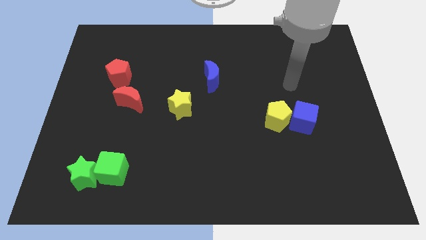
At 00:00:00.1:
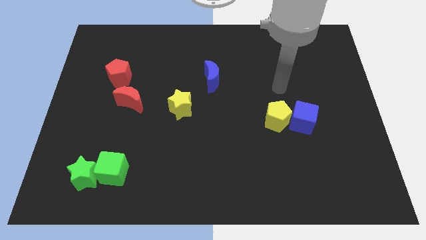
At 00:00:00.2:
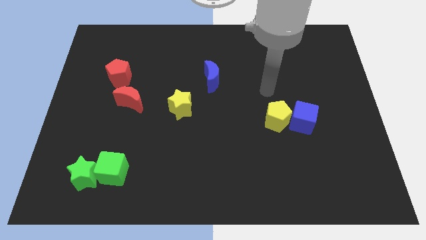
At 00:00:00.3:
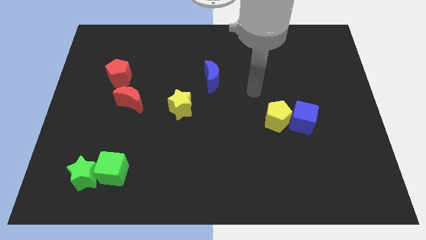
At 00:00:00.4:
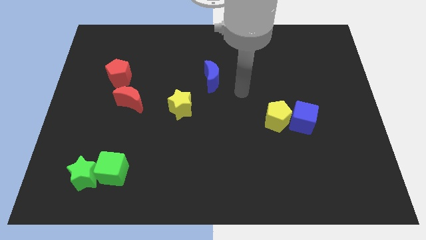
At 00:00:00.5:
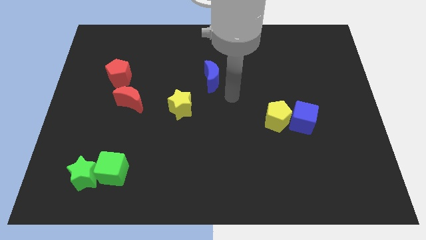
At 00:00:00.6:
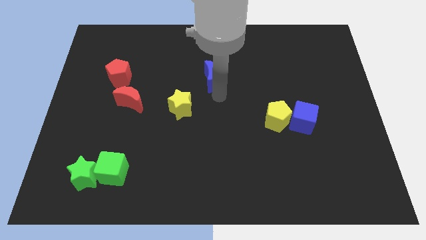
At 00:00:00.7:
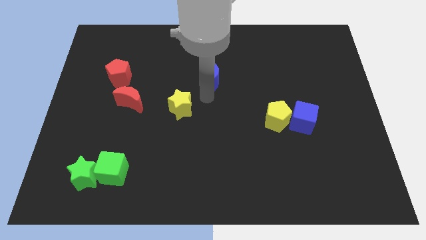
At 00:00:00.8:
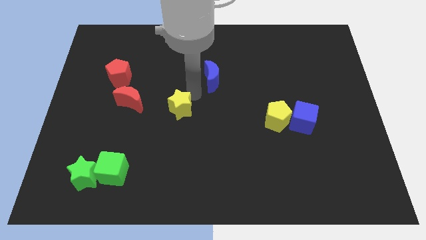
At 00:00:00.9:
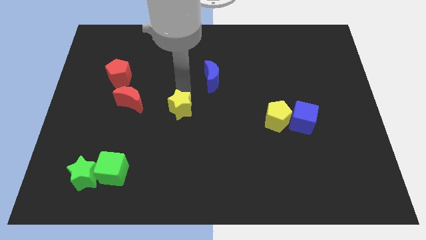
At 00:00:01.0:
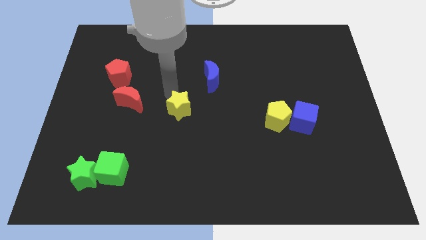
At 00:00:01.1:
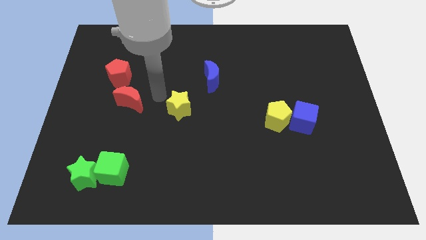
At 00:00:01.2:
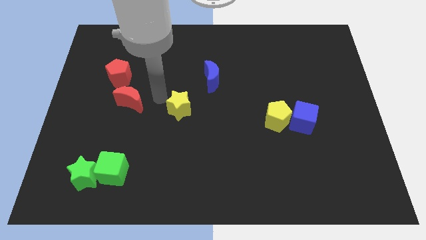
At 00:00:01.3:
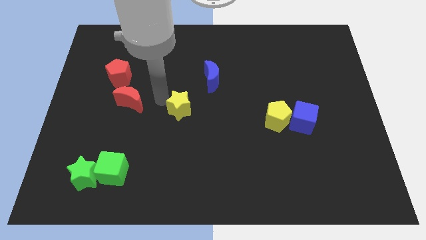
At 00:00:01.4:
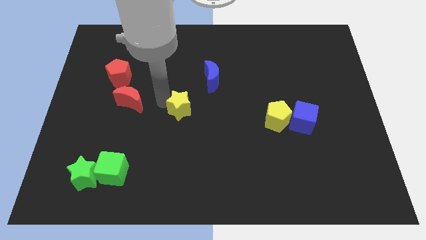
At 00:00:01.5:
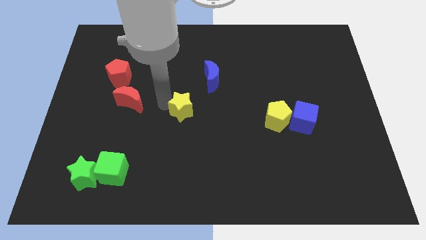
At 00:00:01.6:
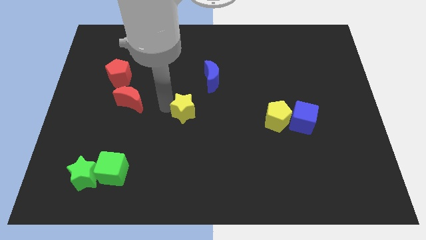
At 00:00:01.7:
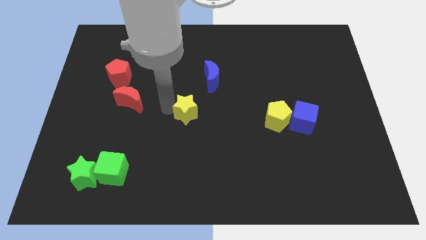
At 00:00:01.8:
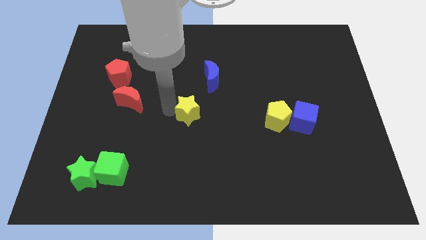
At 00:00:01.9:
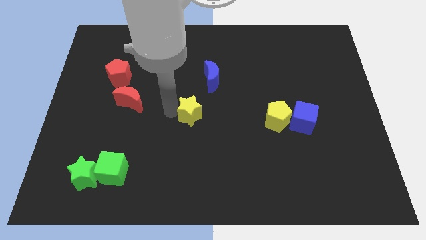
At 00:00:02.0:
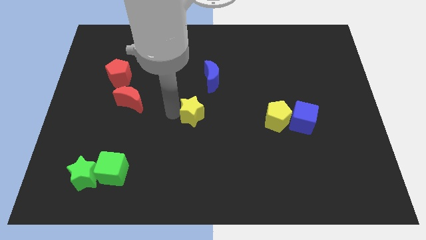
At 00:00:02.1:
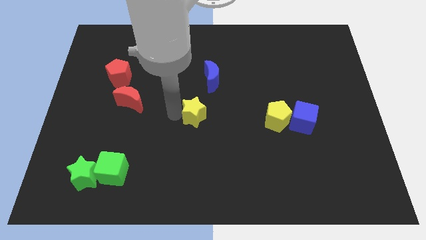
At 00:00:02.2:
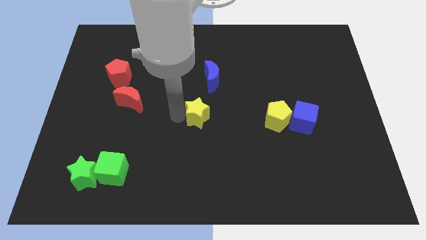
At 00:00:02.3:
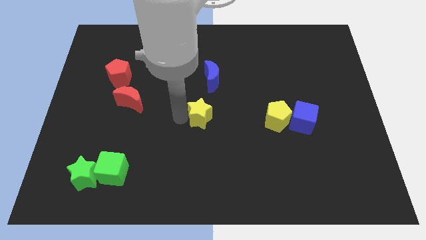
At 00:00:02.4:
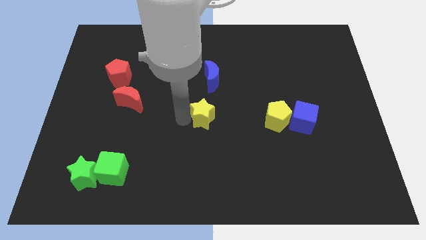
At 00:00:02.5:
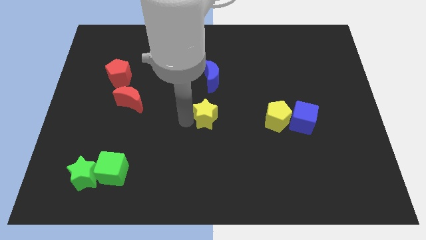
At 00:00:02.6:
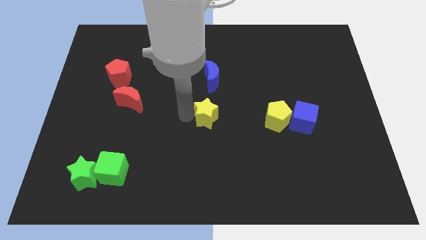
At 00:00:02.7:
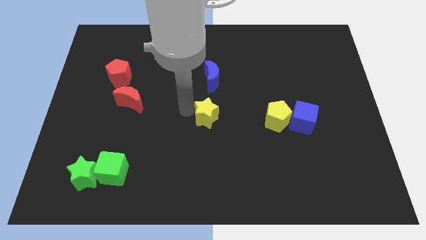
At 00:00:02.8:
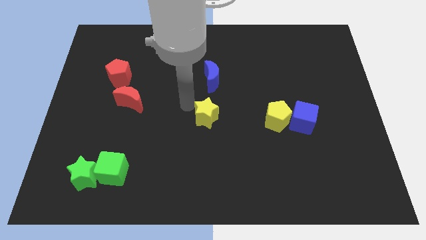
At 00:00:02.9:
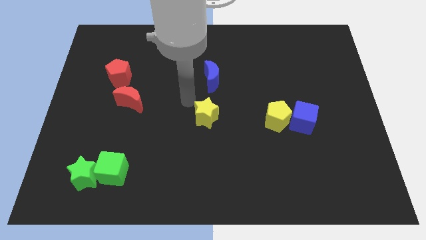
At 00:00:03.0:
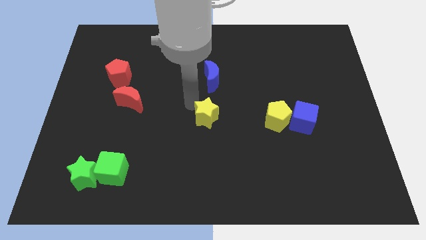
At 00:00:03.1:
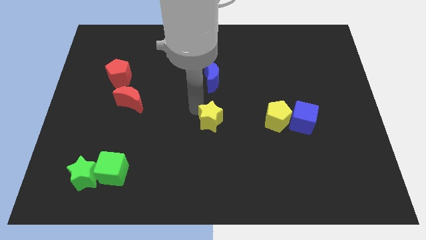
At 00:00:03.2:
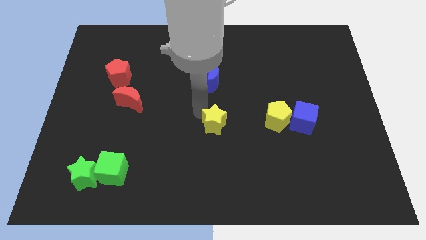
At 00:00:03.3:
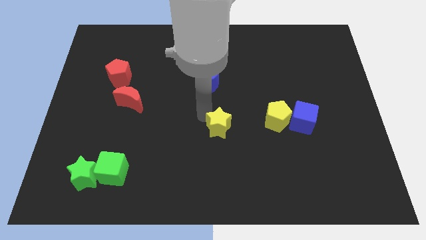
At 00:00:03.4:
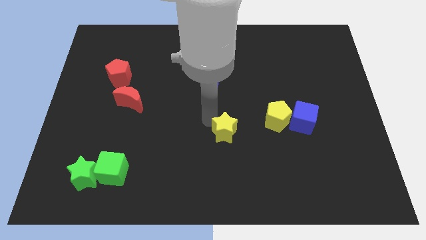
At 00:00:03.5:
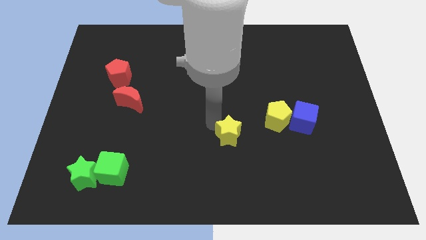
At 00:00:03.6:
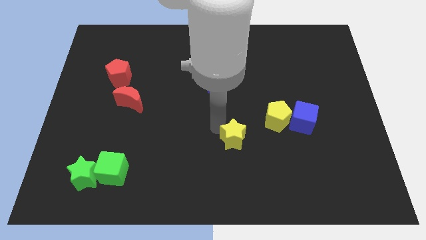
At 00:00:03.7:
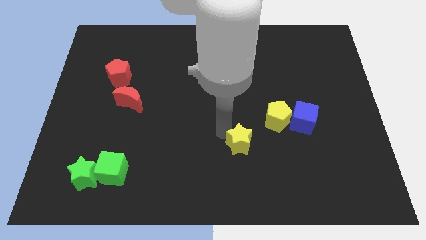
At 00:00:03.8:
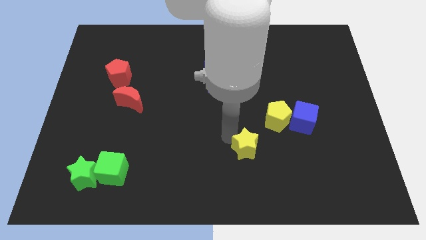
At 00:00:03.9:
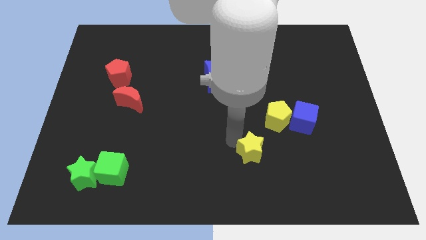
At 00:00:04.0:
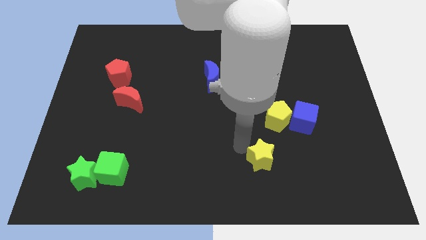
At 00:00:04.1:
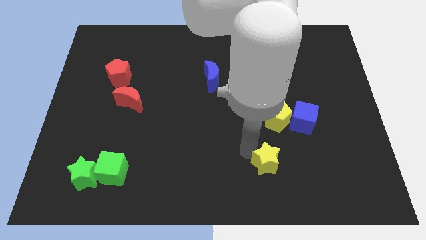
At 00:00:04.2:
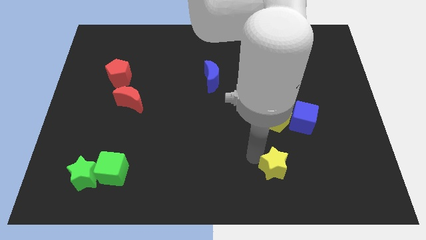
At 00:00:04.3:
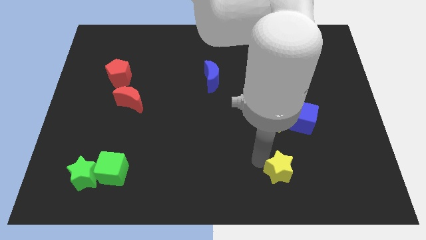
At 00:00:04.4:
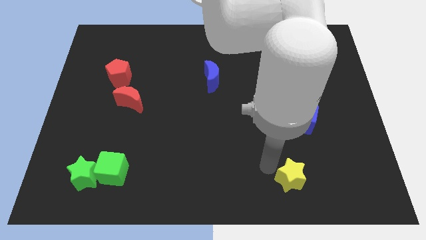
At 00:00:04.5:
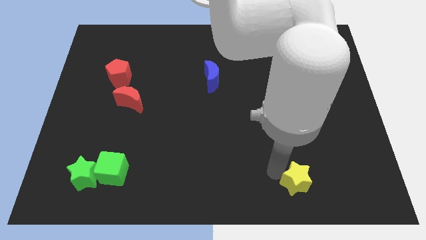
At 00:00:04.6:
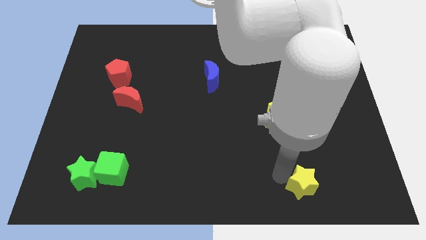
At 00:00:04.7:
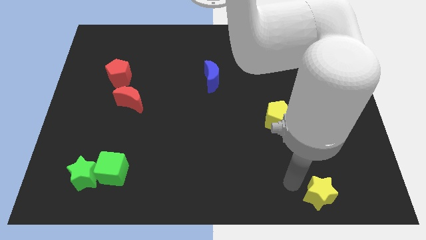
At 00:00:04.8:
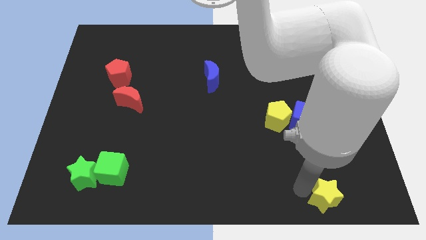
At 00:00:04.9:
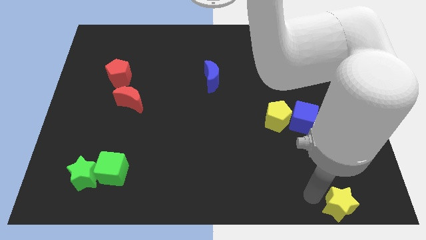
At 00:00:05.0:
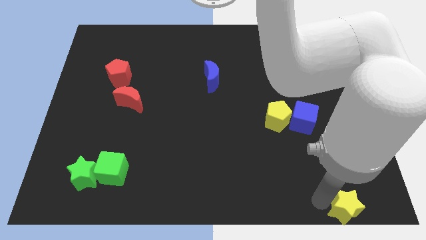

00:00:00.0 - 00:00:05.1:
push the yellow star to the bottom right

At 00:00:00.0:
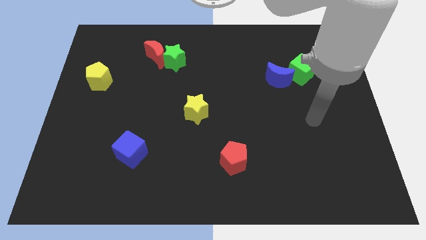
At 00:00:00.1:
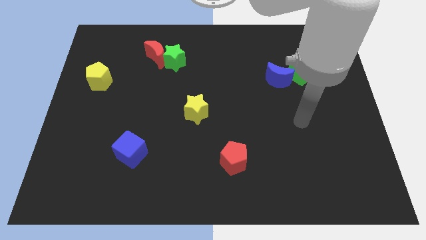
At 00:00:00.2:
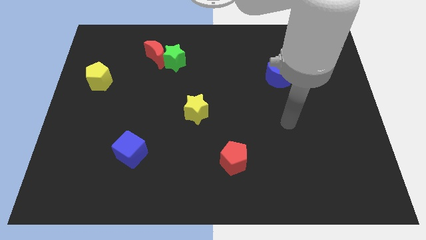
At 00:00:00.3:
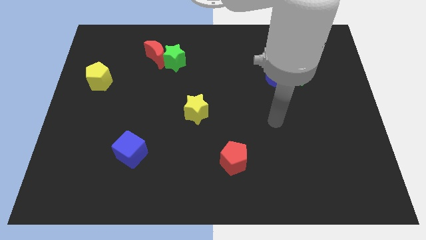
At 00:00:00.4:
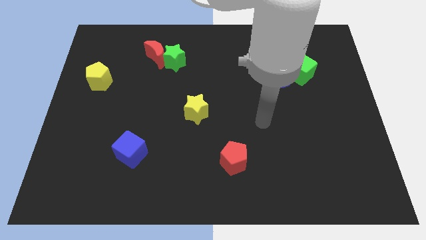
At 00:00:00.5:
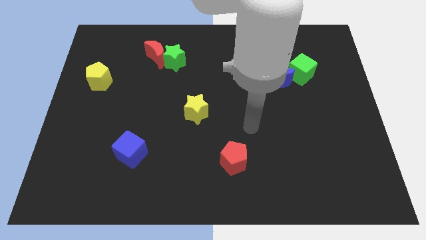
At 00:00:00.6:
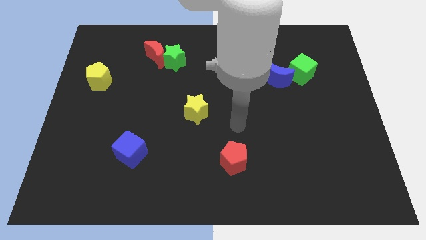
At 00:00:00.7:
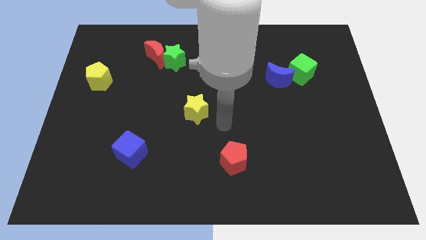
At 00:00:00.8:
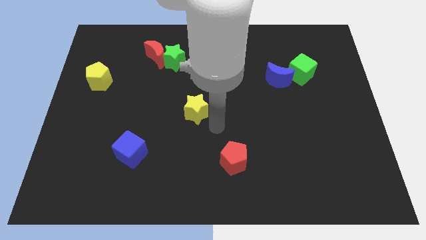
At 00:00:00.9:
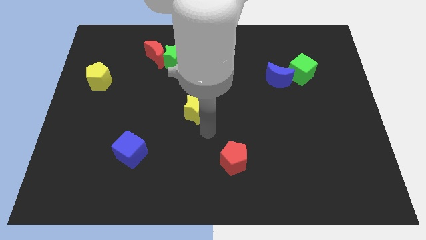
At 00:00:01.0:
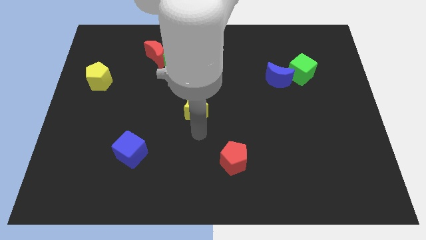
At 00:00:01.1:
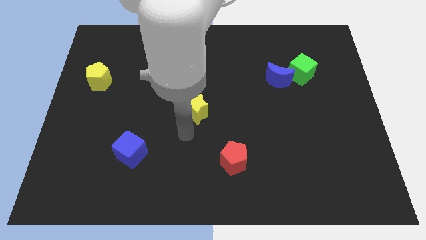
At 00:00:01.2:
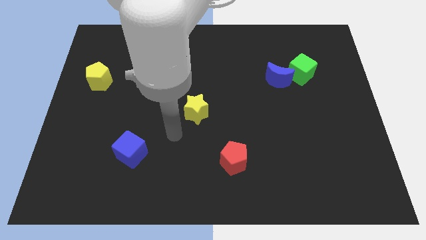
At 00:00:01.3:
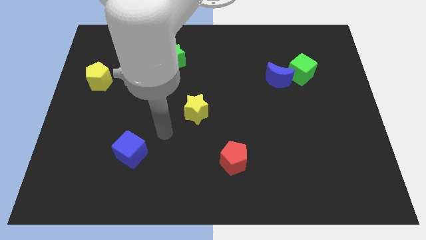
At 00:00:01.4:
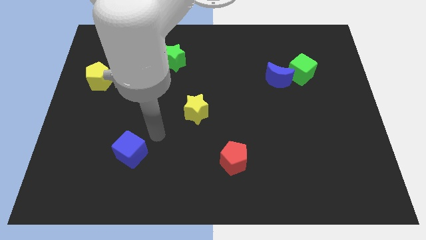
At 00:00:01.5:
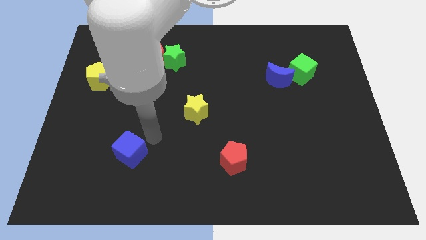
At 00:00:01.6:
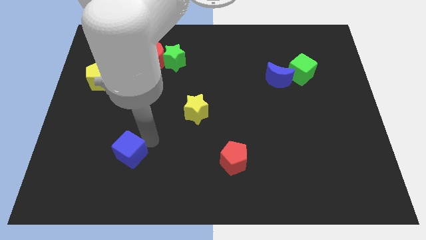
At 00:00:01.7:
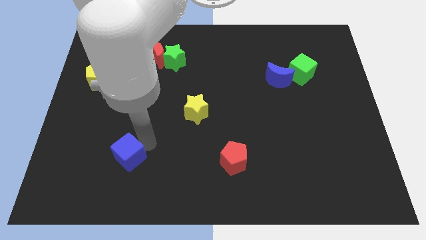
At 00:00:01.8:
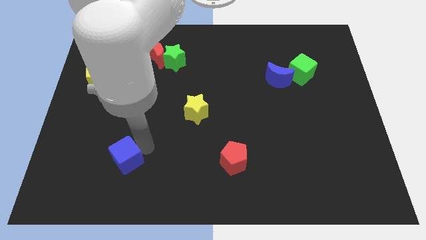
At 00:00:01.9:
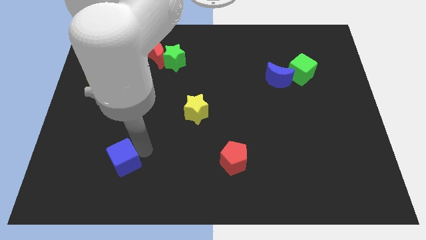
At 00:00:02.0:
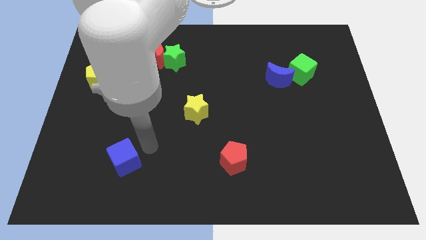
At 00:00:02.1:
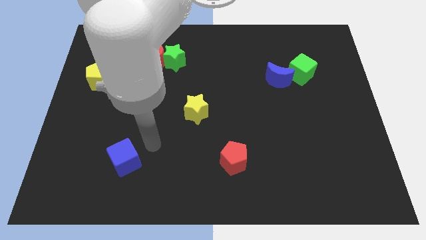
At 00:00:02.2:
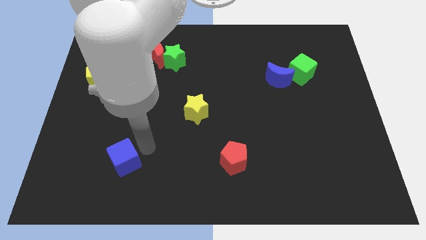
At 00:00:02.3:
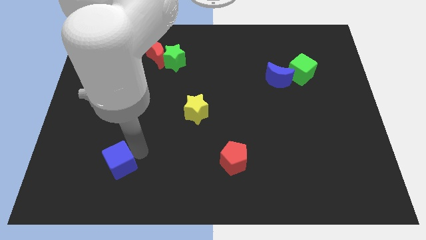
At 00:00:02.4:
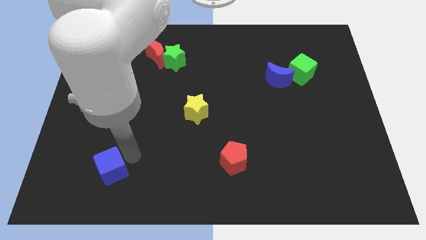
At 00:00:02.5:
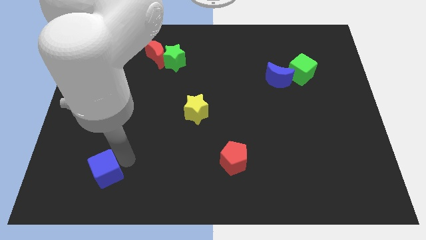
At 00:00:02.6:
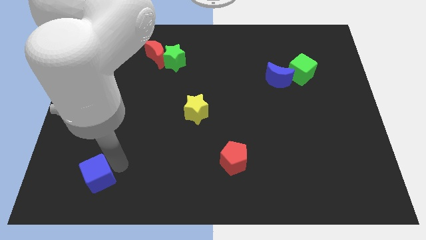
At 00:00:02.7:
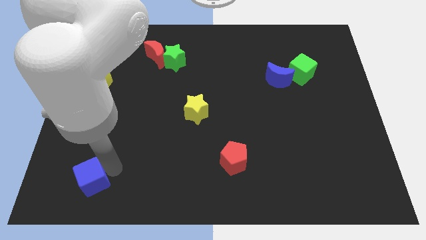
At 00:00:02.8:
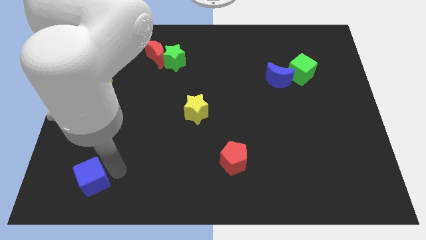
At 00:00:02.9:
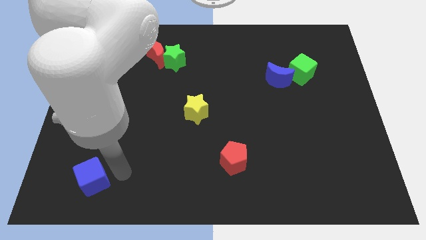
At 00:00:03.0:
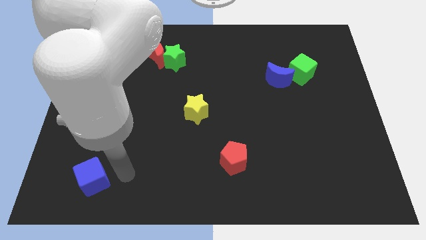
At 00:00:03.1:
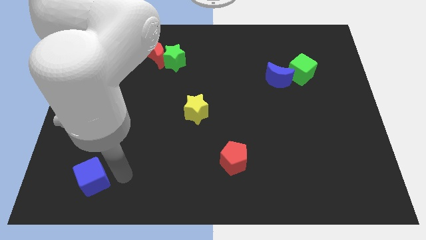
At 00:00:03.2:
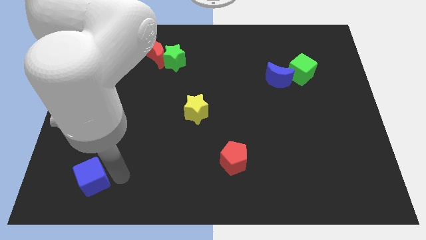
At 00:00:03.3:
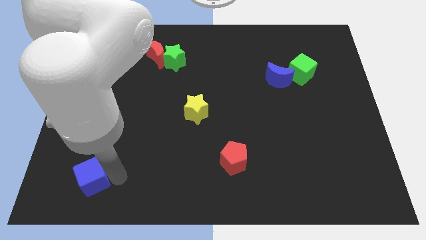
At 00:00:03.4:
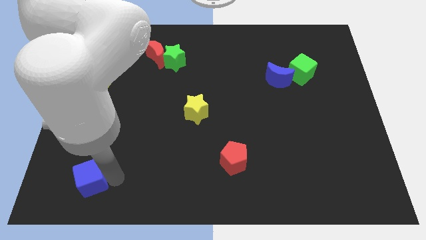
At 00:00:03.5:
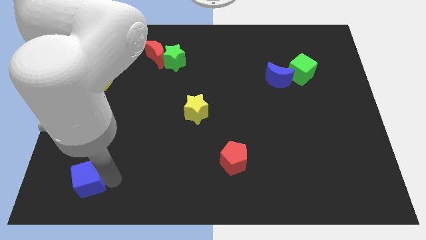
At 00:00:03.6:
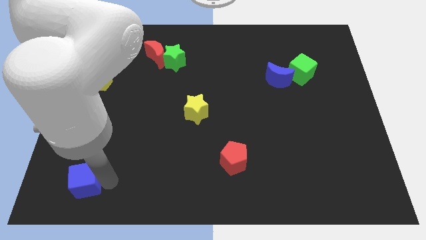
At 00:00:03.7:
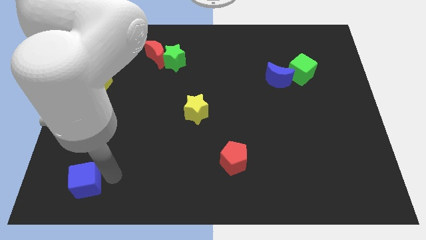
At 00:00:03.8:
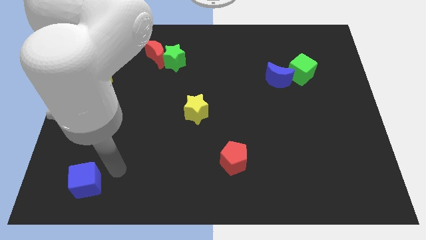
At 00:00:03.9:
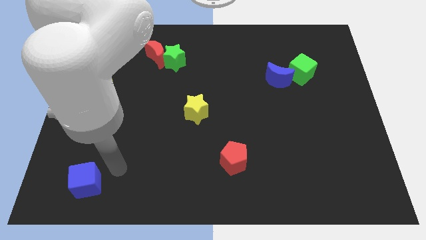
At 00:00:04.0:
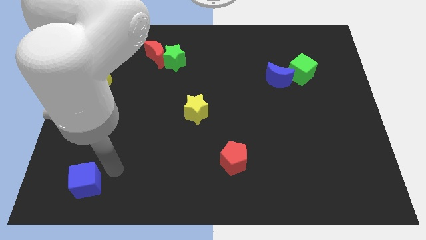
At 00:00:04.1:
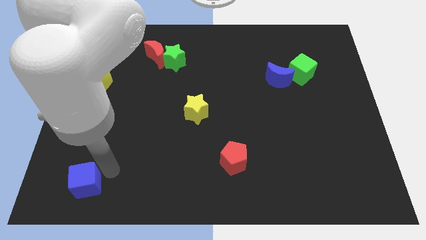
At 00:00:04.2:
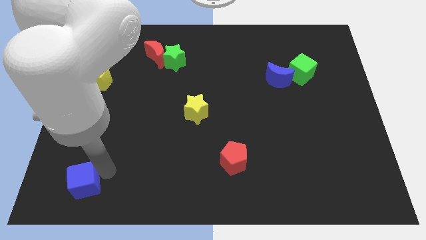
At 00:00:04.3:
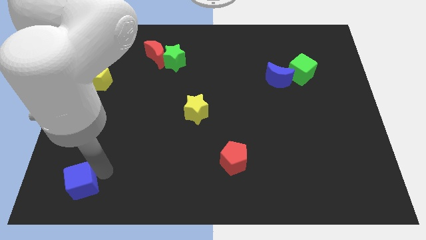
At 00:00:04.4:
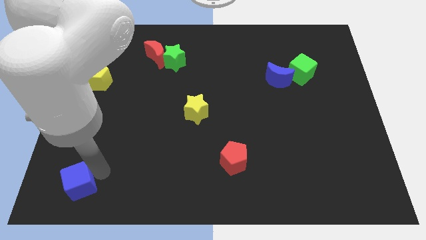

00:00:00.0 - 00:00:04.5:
push the blue cube to the bottom left of the board
